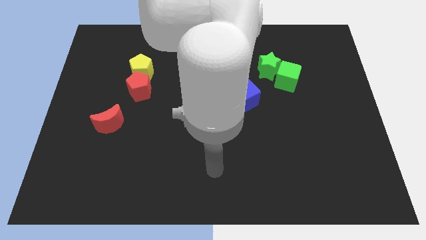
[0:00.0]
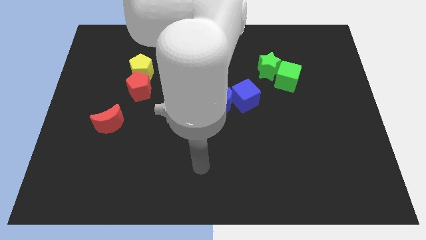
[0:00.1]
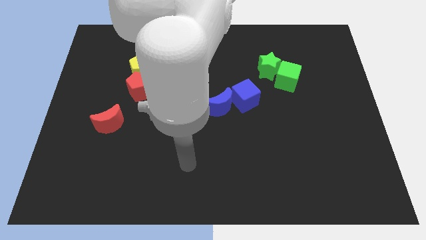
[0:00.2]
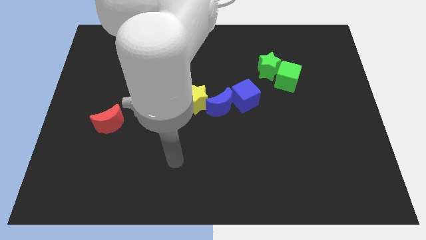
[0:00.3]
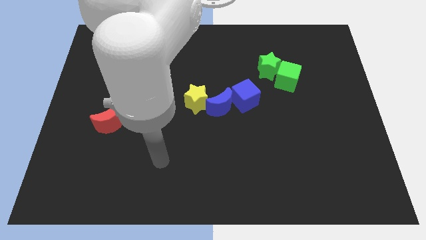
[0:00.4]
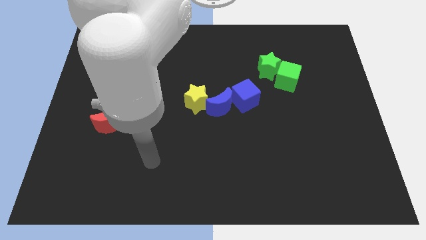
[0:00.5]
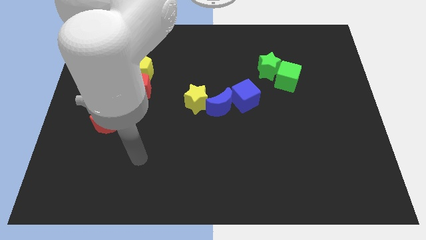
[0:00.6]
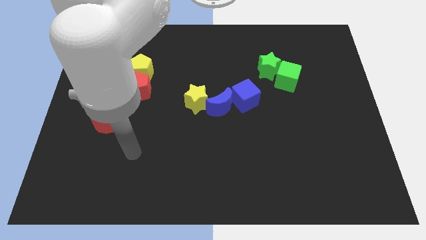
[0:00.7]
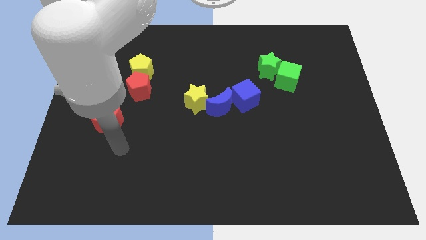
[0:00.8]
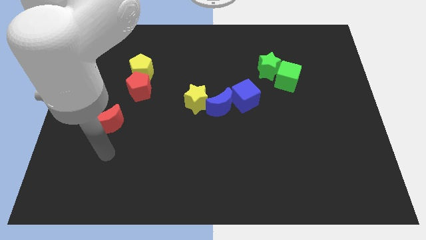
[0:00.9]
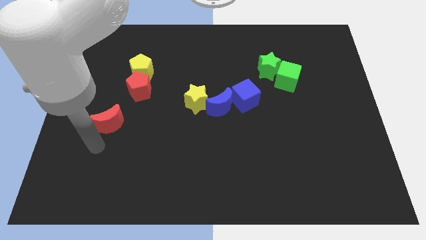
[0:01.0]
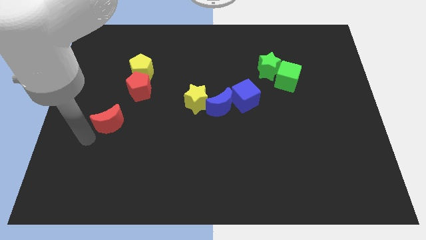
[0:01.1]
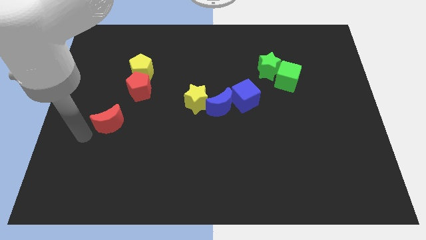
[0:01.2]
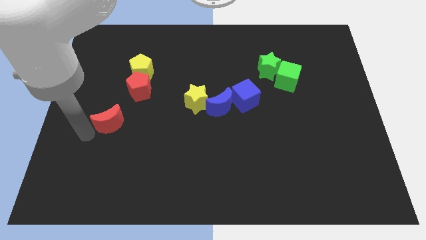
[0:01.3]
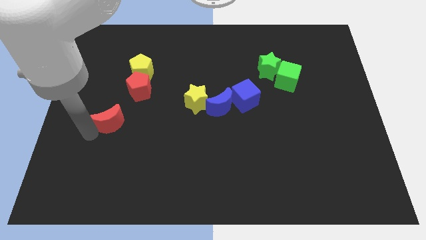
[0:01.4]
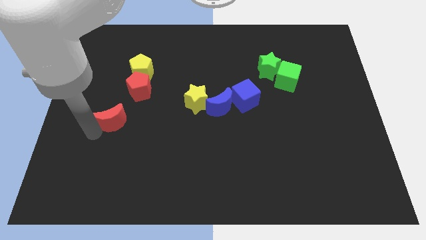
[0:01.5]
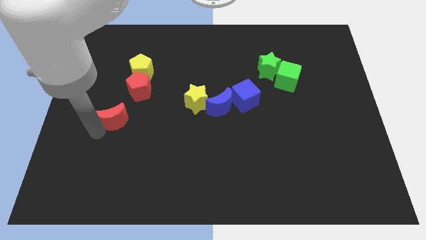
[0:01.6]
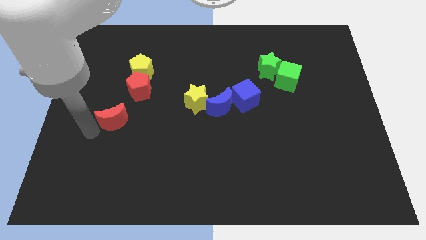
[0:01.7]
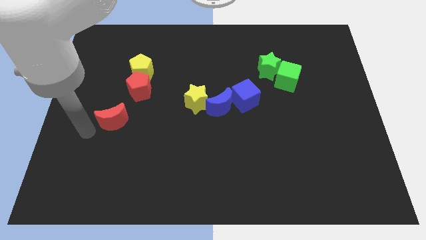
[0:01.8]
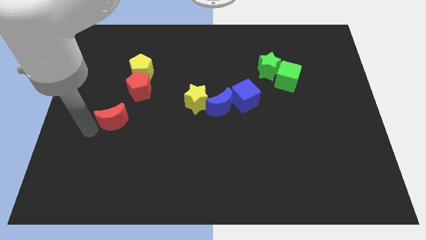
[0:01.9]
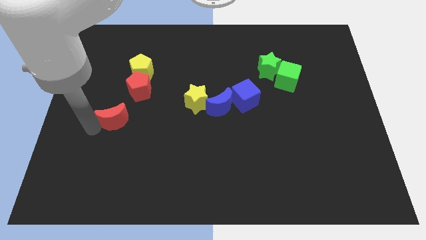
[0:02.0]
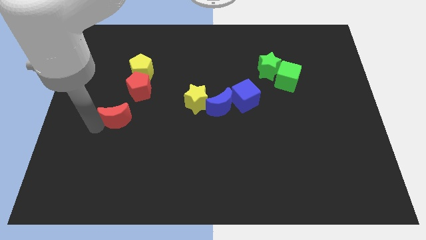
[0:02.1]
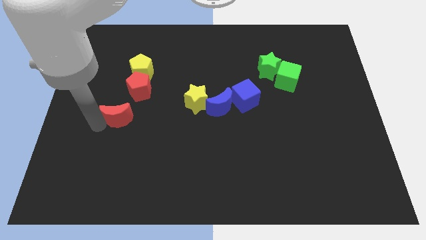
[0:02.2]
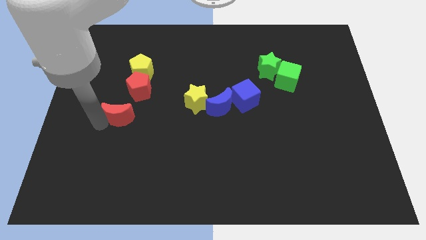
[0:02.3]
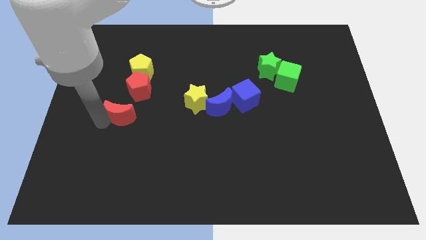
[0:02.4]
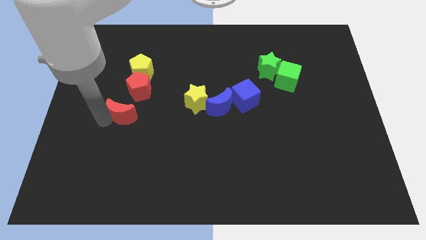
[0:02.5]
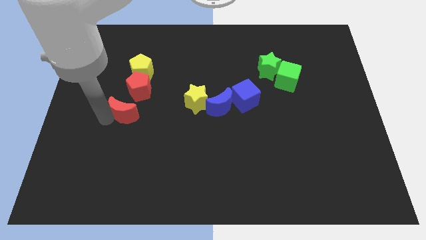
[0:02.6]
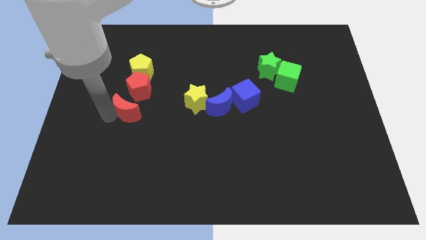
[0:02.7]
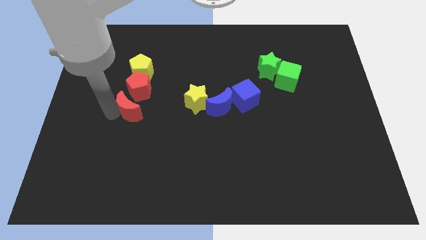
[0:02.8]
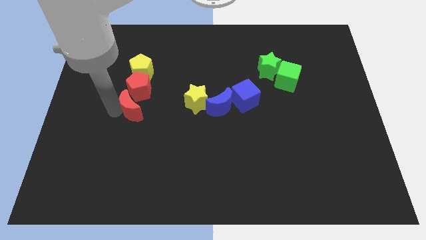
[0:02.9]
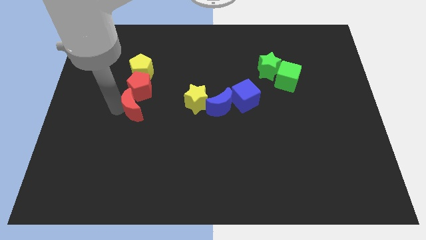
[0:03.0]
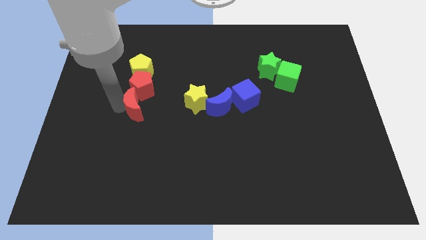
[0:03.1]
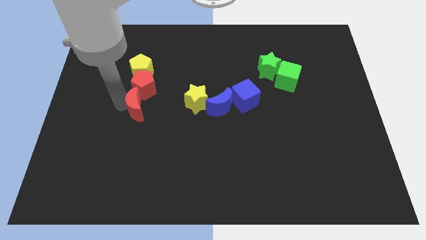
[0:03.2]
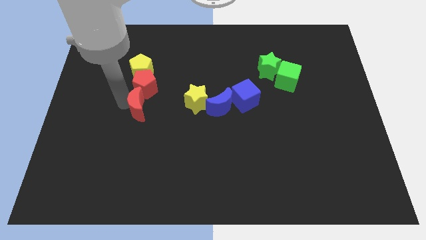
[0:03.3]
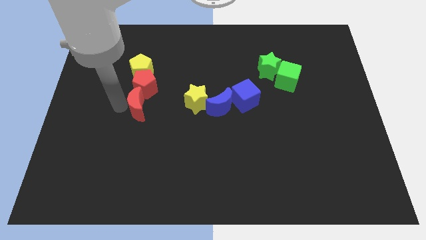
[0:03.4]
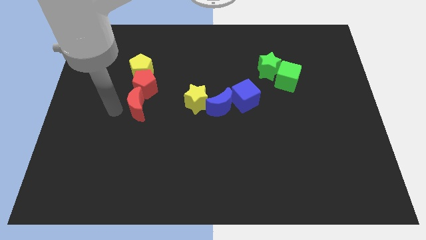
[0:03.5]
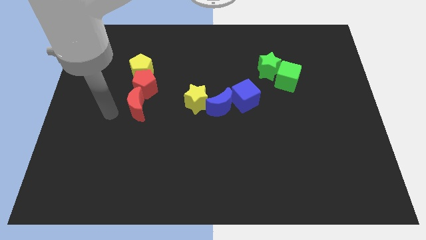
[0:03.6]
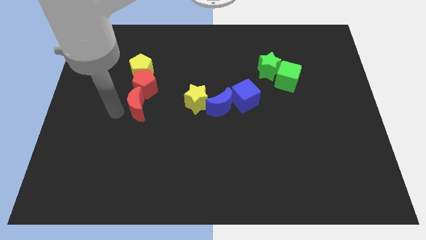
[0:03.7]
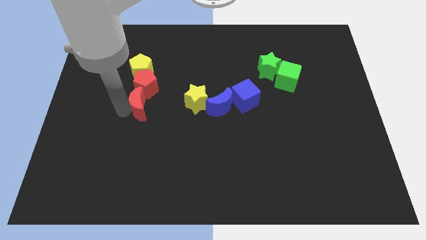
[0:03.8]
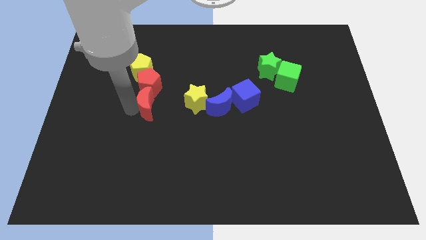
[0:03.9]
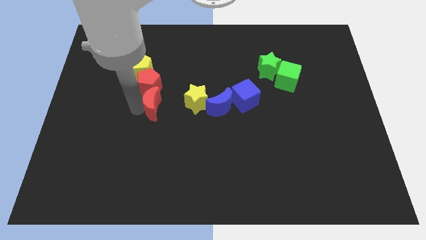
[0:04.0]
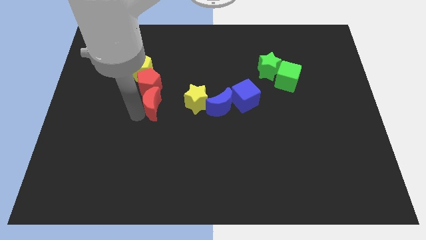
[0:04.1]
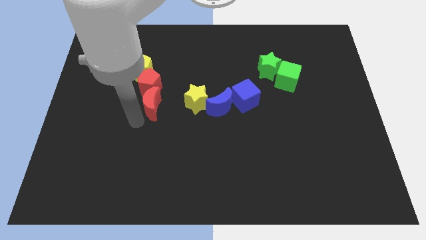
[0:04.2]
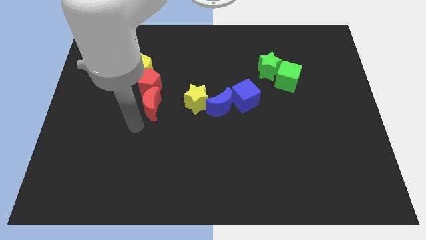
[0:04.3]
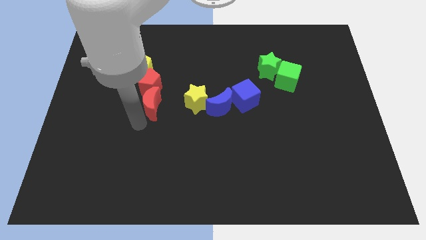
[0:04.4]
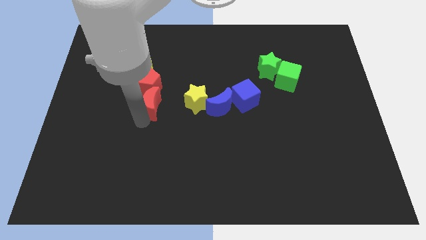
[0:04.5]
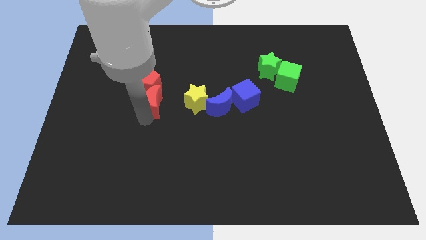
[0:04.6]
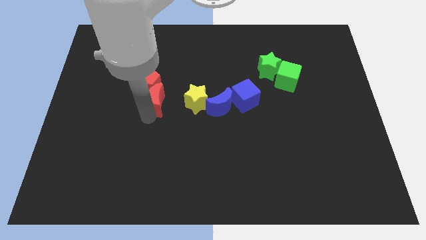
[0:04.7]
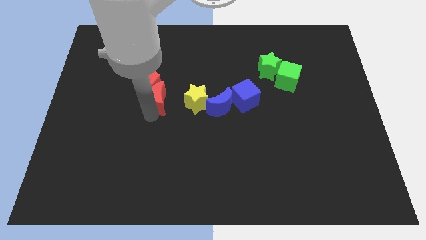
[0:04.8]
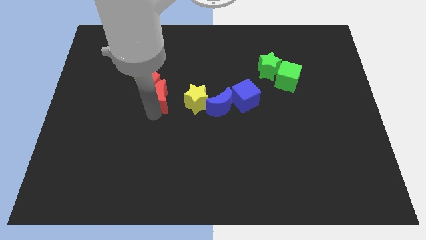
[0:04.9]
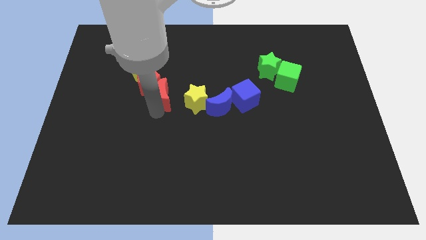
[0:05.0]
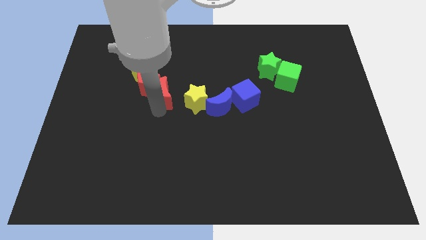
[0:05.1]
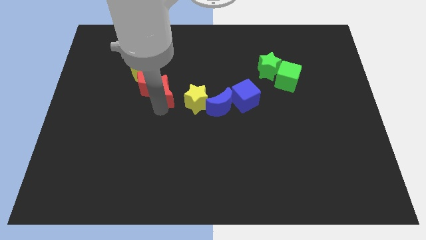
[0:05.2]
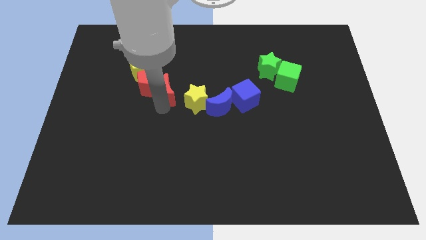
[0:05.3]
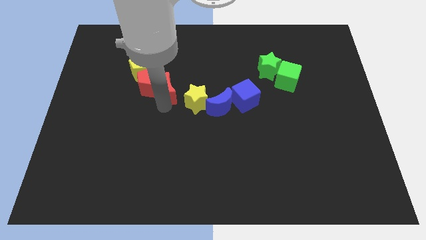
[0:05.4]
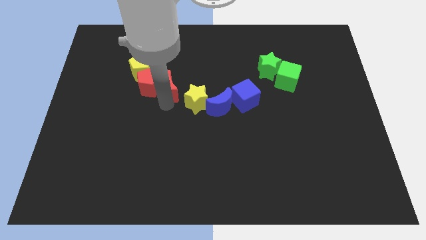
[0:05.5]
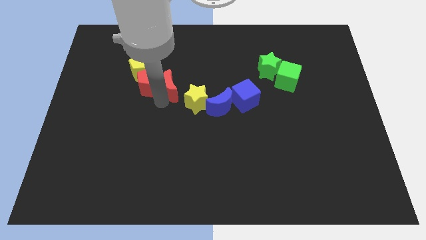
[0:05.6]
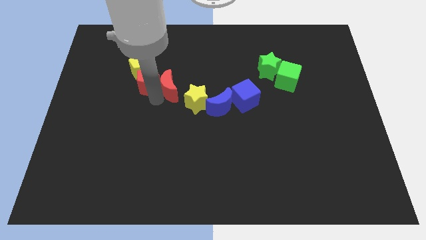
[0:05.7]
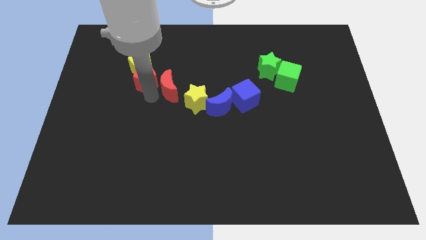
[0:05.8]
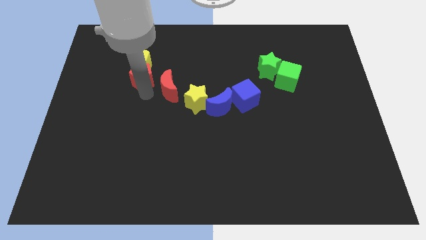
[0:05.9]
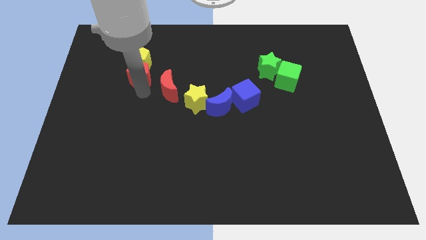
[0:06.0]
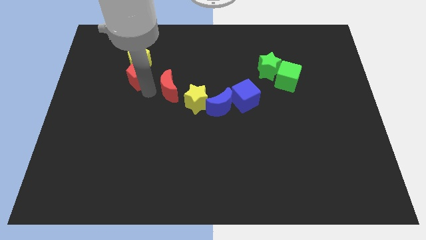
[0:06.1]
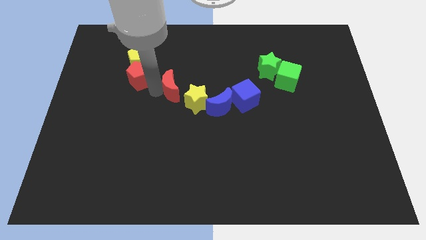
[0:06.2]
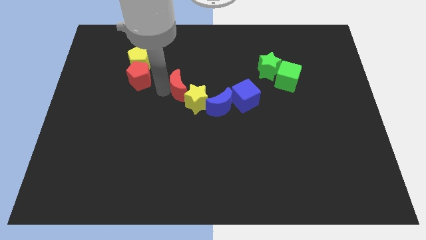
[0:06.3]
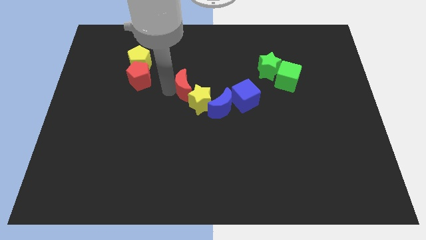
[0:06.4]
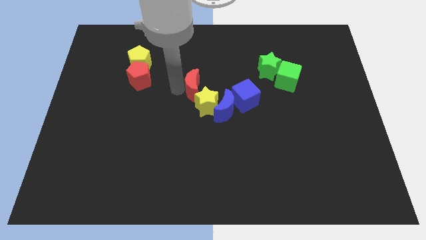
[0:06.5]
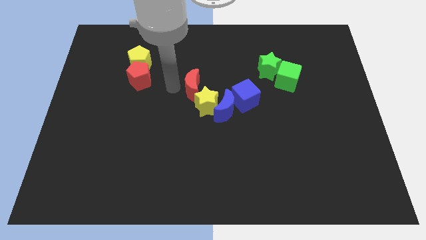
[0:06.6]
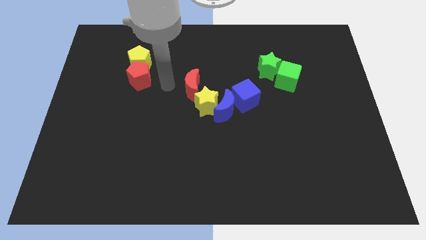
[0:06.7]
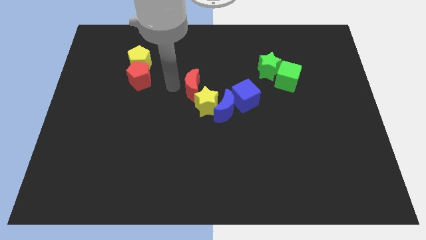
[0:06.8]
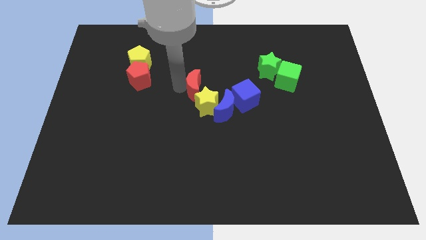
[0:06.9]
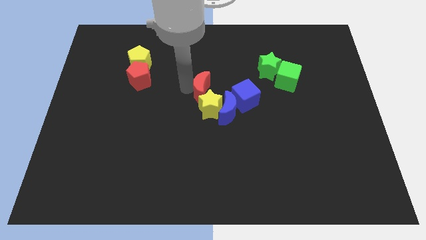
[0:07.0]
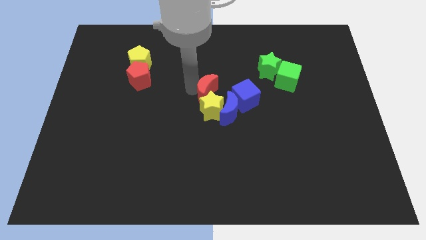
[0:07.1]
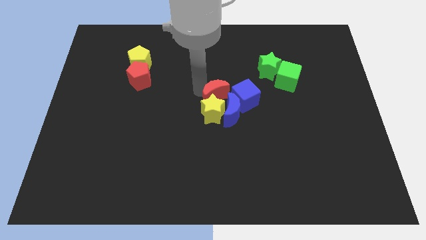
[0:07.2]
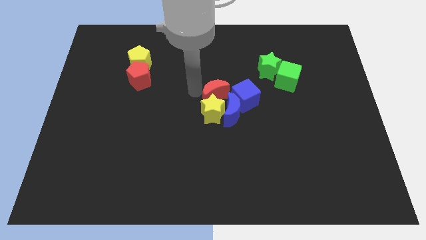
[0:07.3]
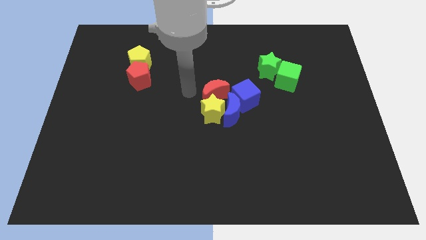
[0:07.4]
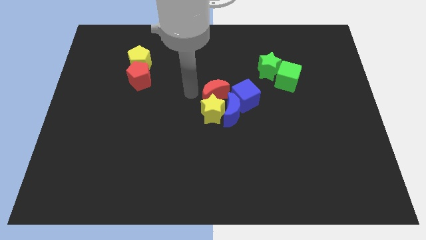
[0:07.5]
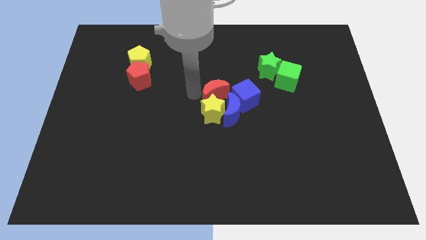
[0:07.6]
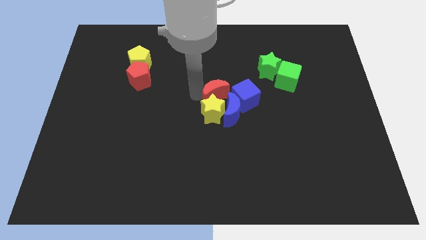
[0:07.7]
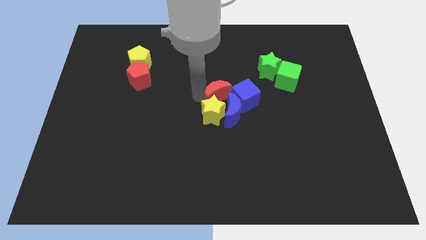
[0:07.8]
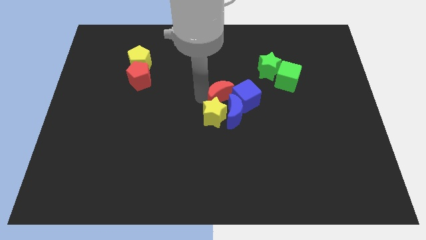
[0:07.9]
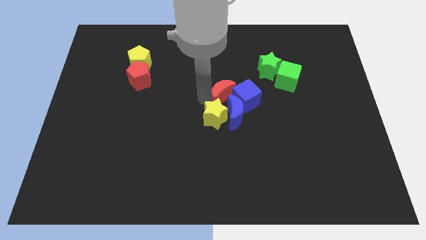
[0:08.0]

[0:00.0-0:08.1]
move the red moon to the blue cube
